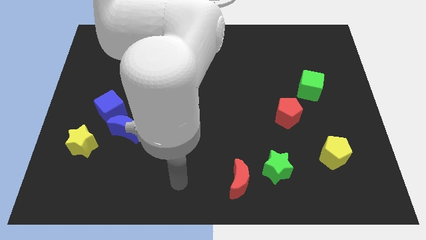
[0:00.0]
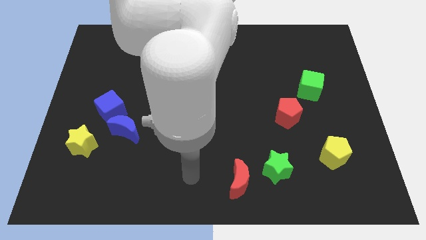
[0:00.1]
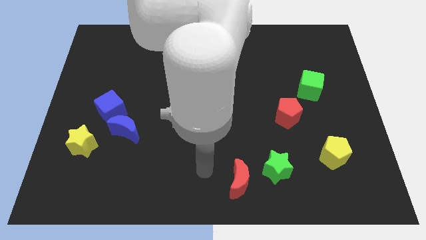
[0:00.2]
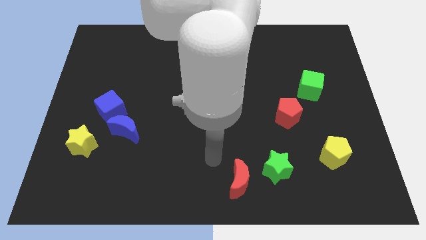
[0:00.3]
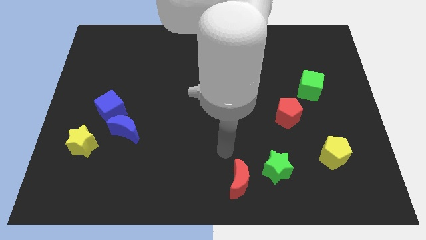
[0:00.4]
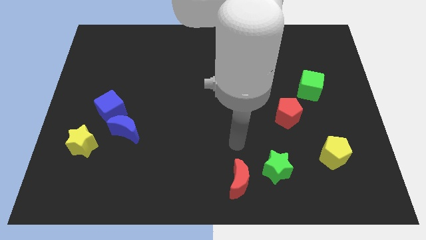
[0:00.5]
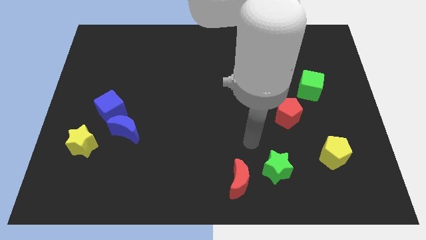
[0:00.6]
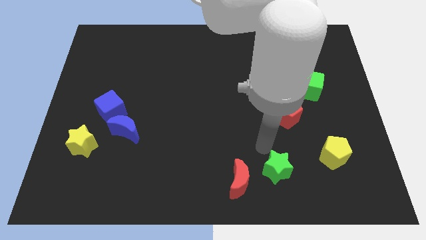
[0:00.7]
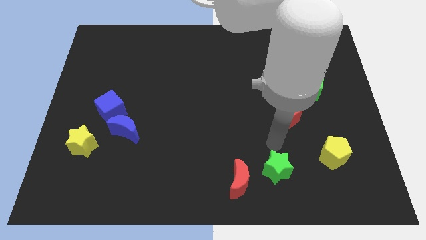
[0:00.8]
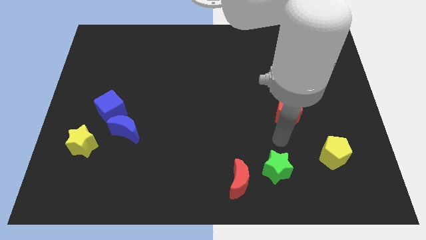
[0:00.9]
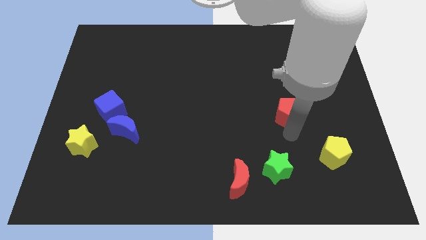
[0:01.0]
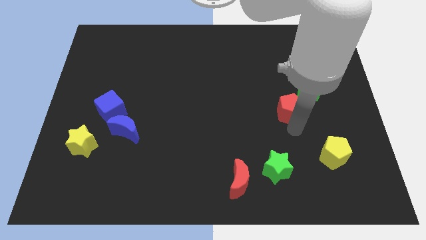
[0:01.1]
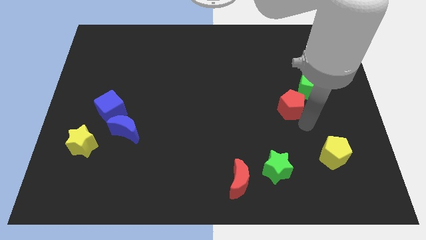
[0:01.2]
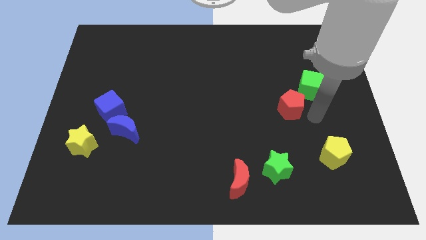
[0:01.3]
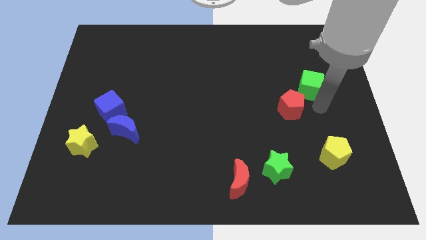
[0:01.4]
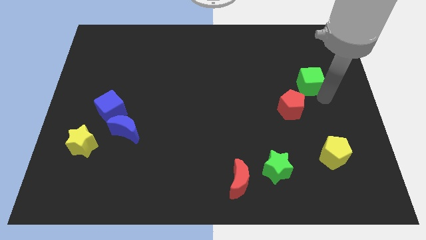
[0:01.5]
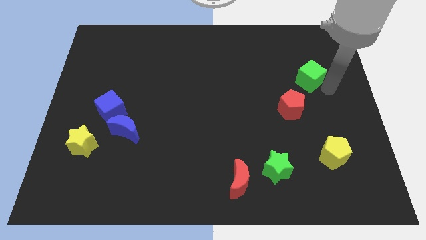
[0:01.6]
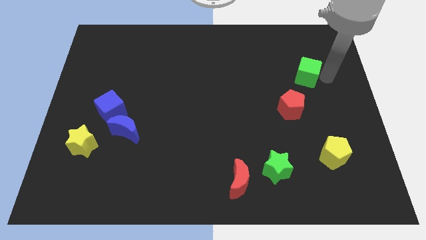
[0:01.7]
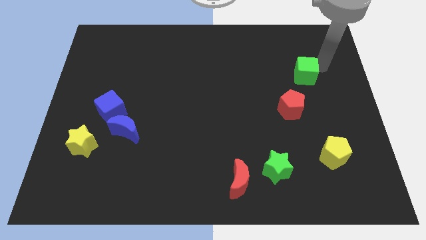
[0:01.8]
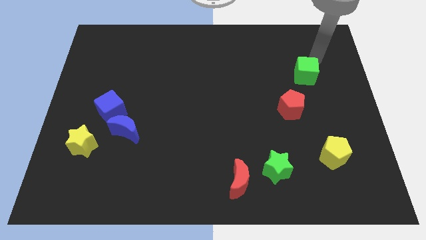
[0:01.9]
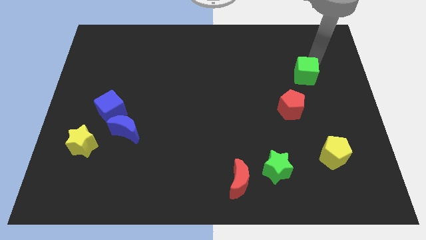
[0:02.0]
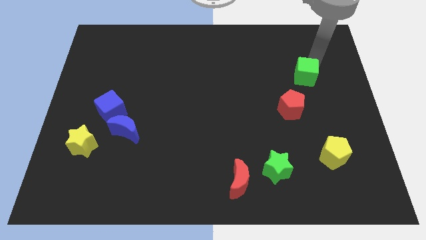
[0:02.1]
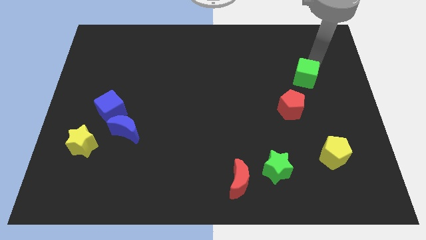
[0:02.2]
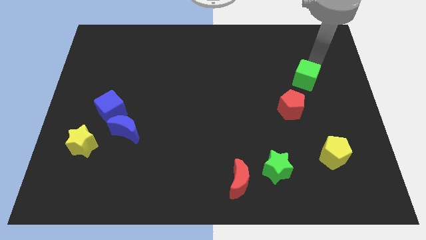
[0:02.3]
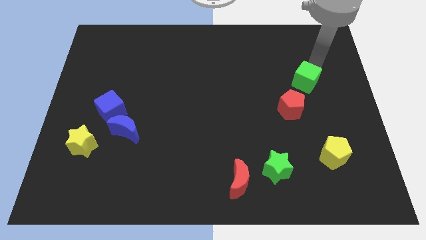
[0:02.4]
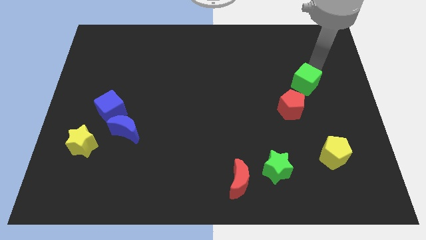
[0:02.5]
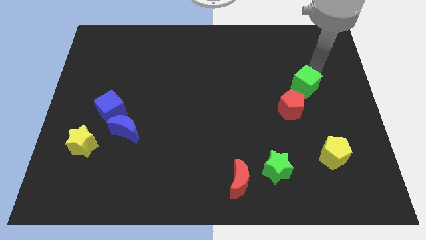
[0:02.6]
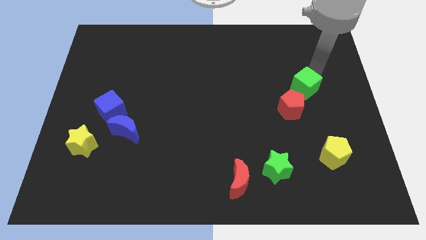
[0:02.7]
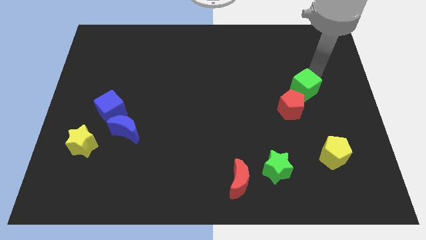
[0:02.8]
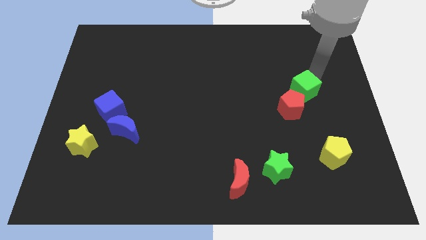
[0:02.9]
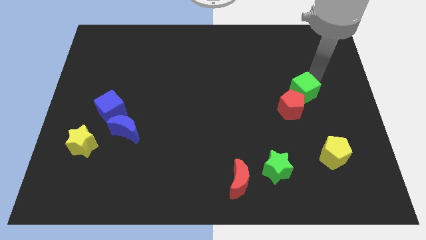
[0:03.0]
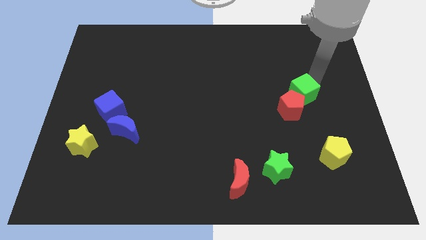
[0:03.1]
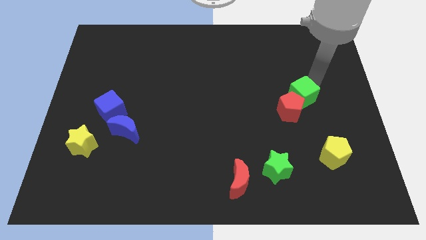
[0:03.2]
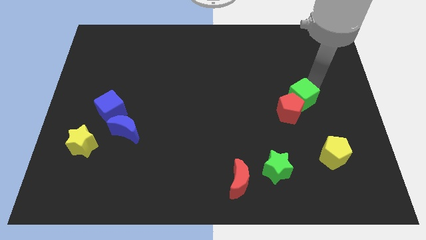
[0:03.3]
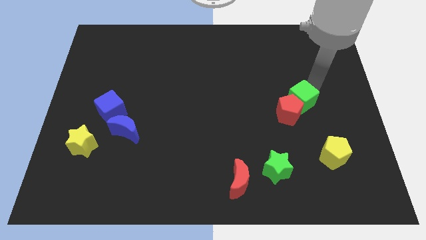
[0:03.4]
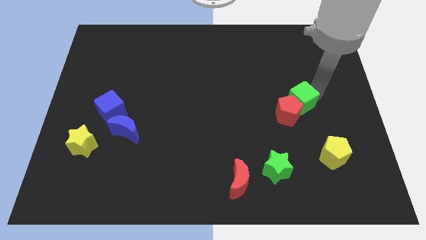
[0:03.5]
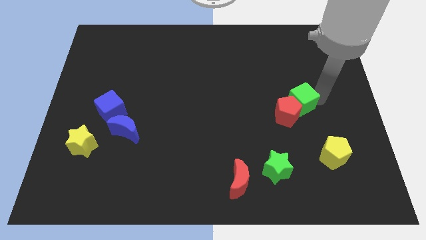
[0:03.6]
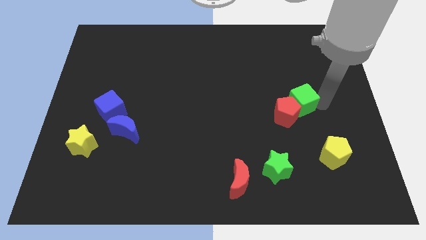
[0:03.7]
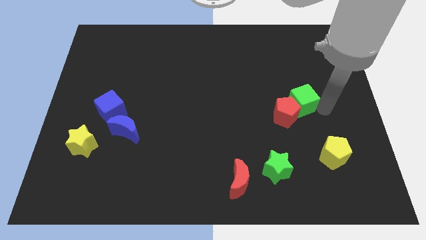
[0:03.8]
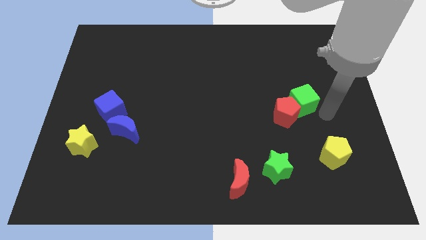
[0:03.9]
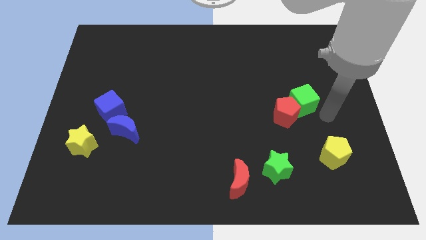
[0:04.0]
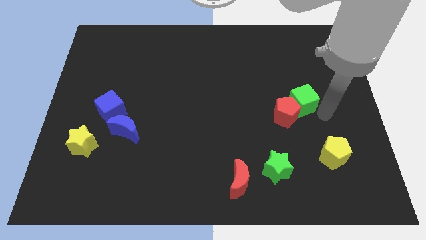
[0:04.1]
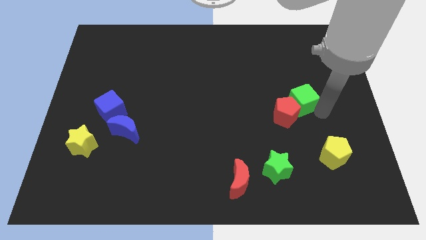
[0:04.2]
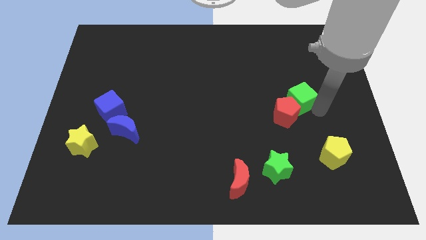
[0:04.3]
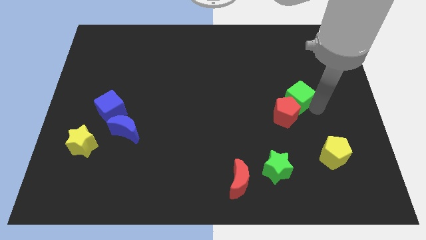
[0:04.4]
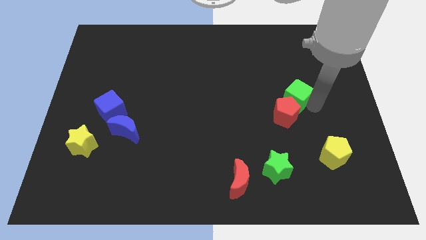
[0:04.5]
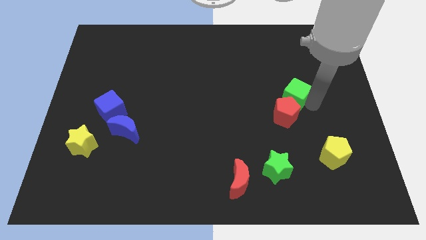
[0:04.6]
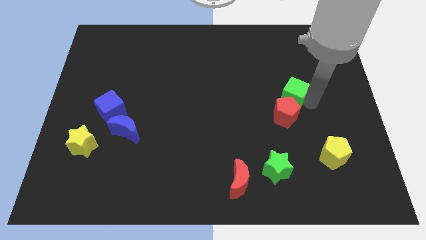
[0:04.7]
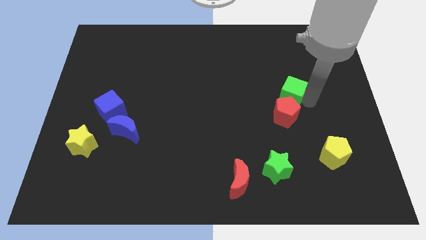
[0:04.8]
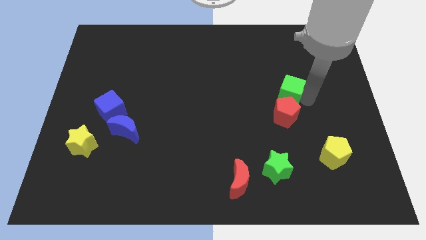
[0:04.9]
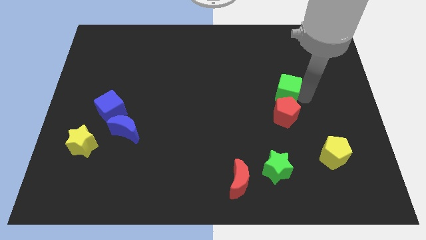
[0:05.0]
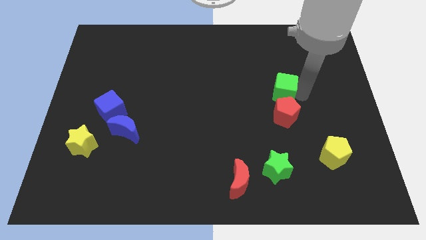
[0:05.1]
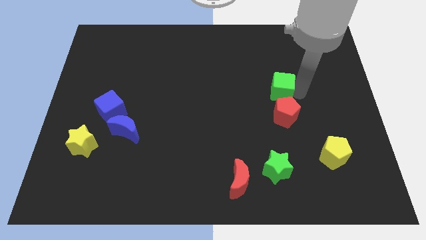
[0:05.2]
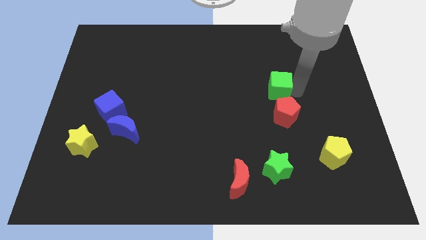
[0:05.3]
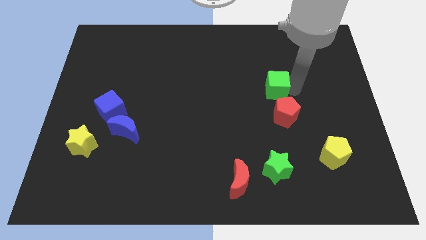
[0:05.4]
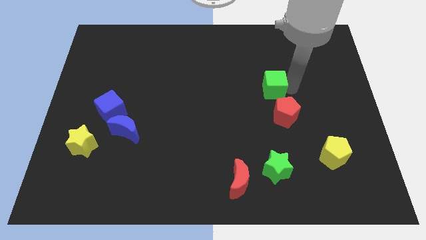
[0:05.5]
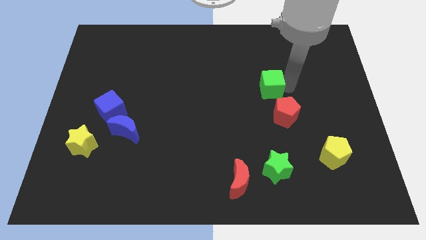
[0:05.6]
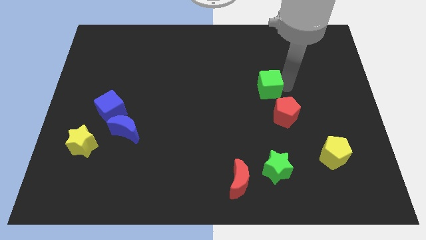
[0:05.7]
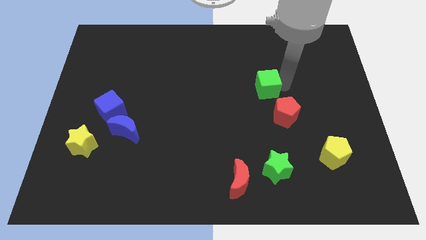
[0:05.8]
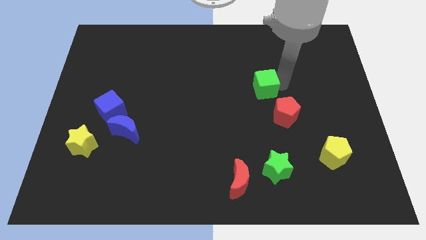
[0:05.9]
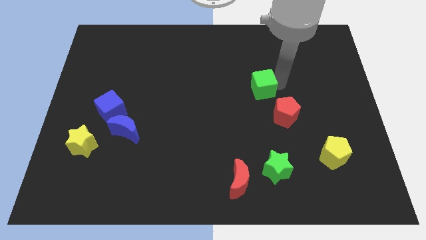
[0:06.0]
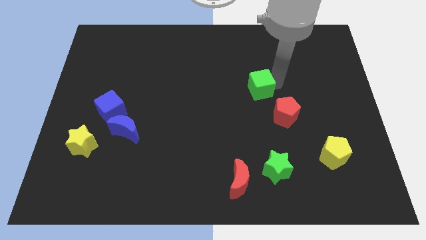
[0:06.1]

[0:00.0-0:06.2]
slide the green cube to the center of the board
